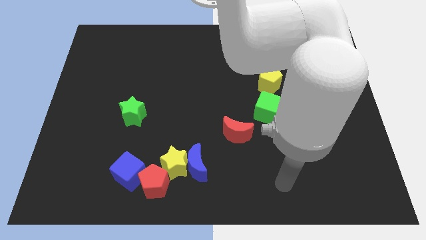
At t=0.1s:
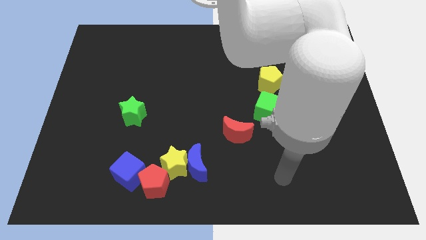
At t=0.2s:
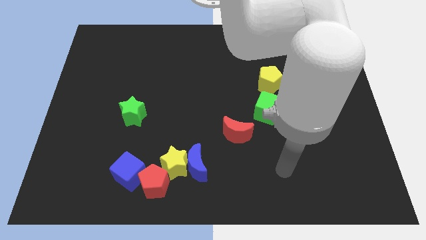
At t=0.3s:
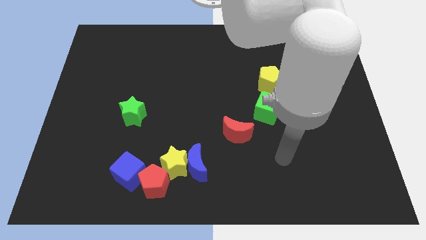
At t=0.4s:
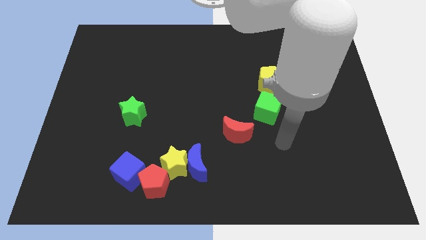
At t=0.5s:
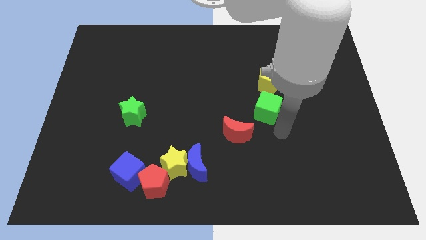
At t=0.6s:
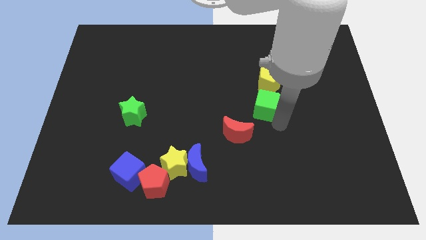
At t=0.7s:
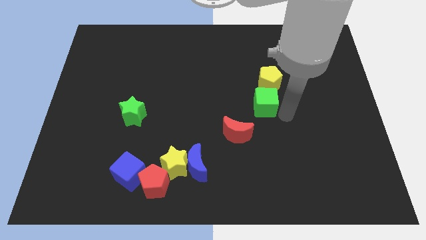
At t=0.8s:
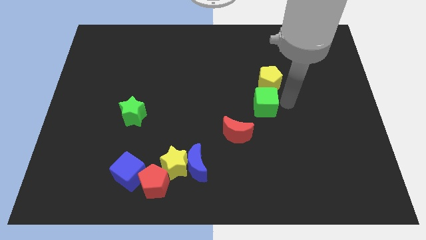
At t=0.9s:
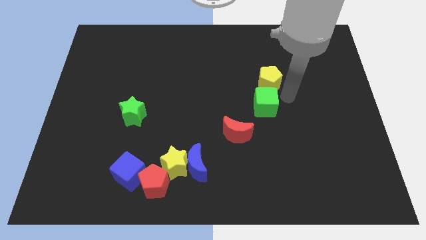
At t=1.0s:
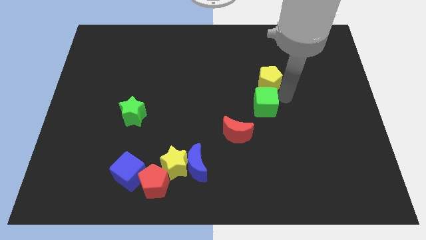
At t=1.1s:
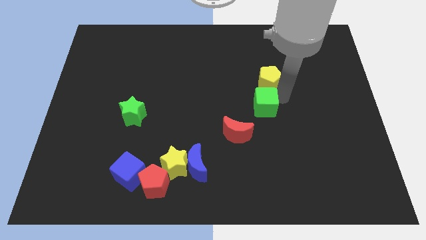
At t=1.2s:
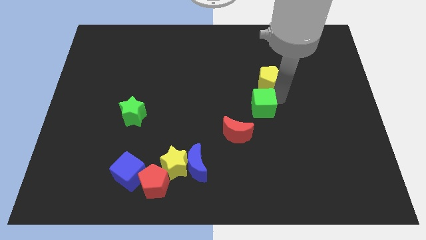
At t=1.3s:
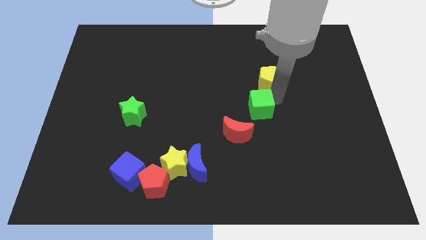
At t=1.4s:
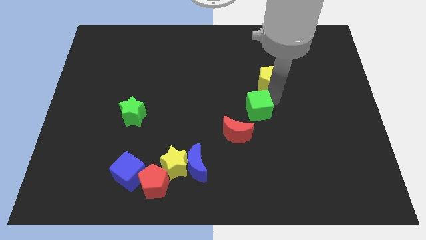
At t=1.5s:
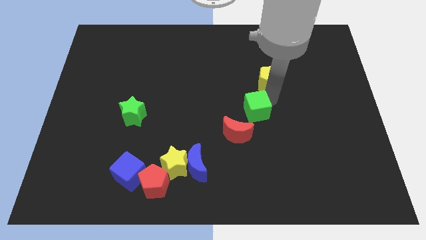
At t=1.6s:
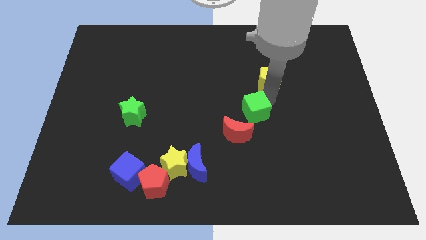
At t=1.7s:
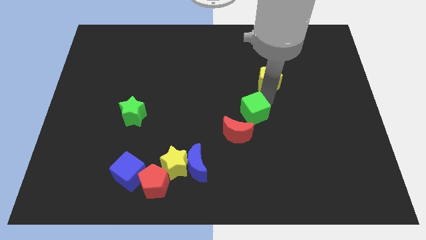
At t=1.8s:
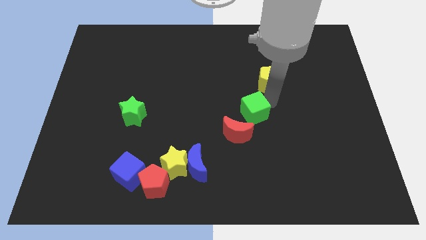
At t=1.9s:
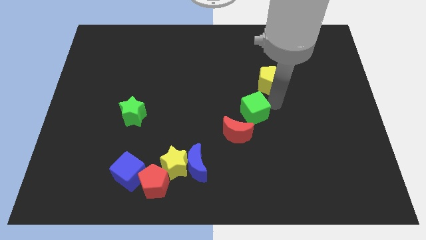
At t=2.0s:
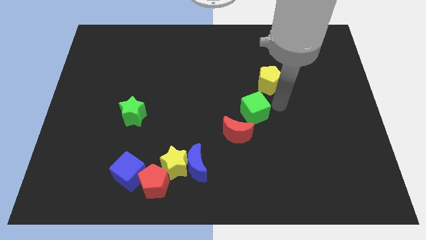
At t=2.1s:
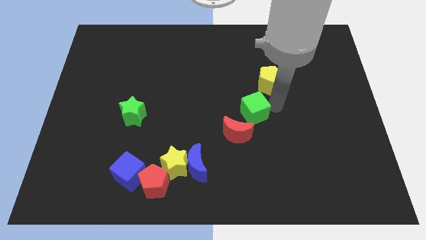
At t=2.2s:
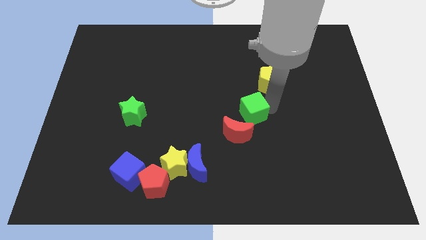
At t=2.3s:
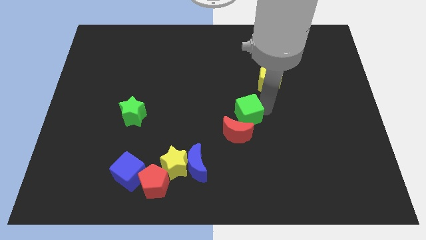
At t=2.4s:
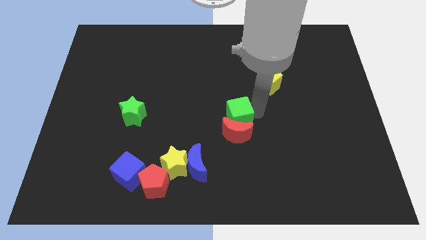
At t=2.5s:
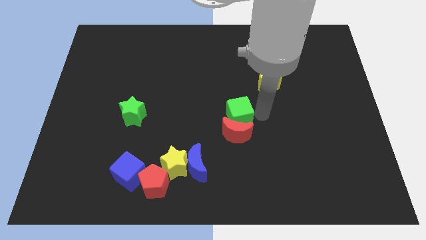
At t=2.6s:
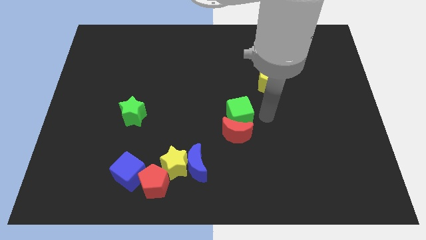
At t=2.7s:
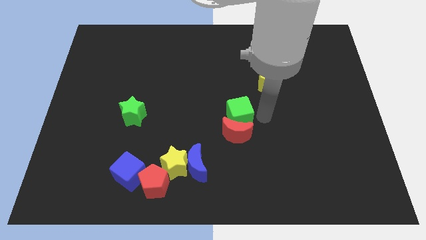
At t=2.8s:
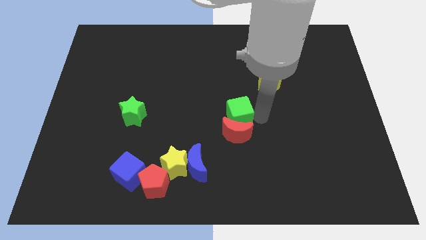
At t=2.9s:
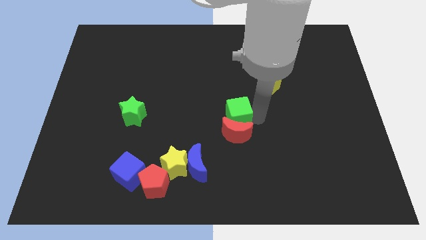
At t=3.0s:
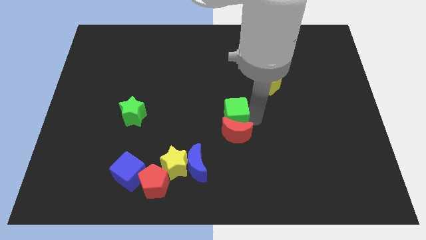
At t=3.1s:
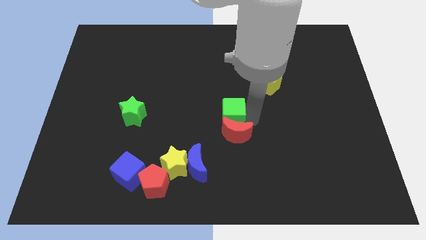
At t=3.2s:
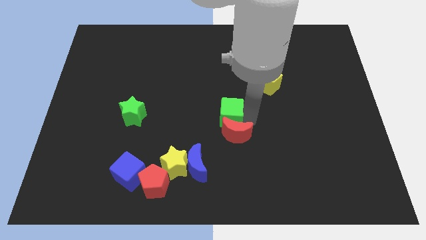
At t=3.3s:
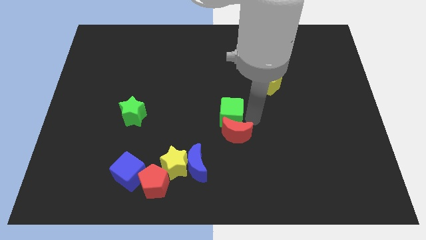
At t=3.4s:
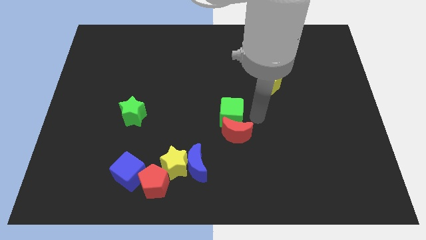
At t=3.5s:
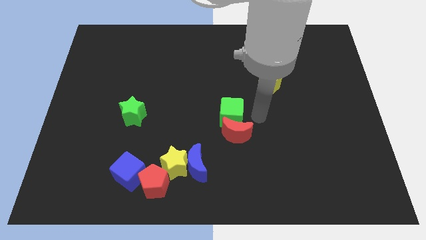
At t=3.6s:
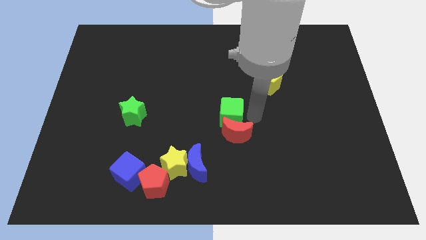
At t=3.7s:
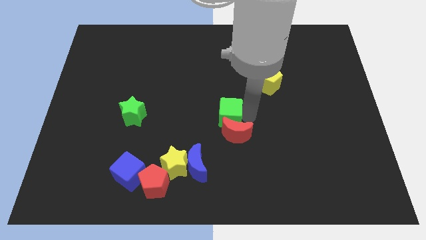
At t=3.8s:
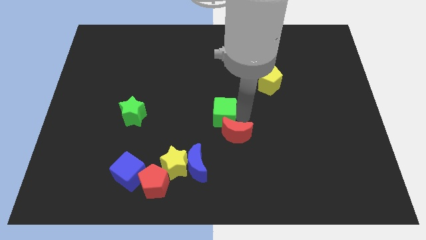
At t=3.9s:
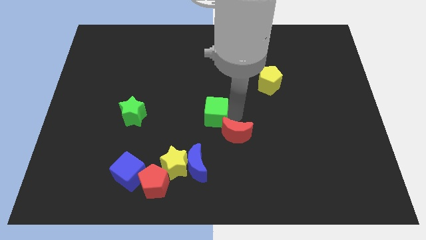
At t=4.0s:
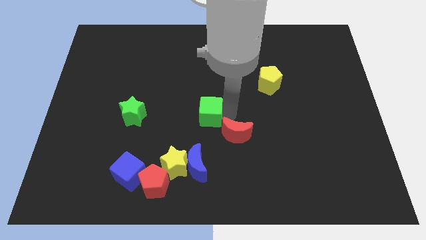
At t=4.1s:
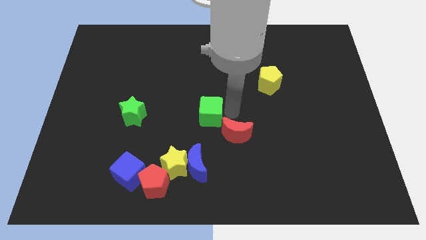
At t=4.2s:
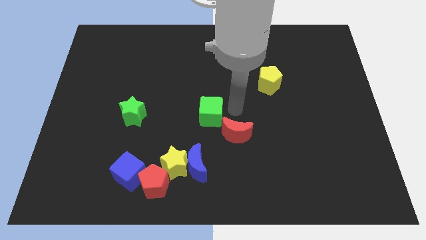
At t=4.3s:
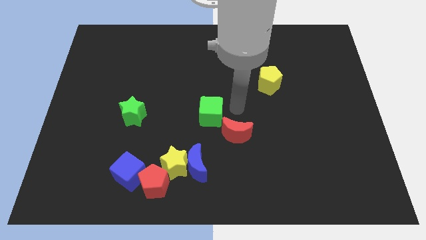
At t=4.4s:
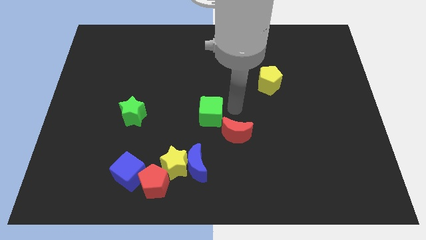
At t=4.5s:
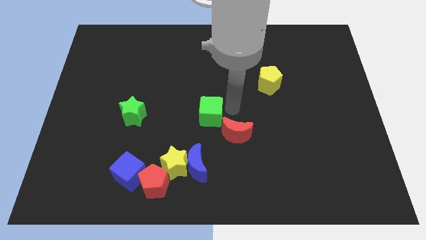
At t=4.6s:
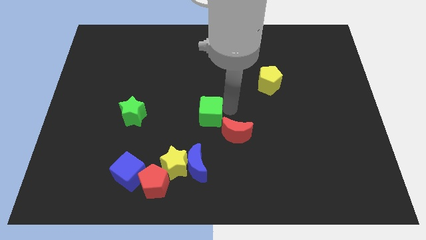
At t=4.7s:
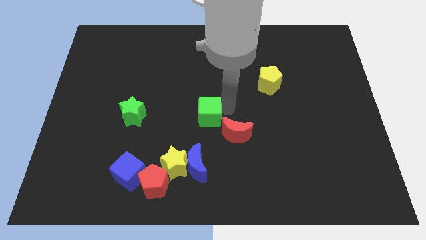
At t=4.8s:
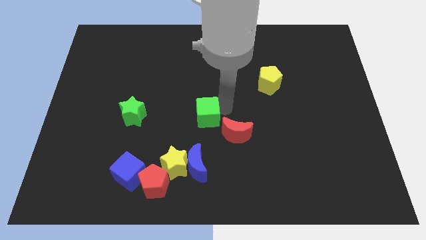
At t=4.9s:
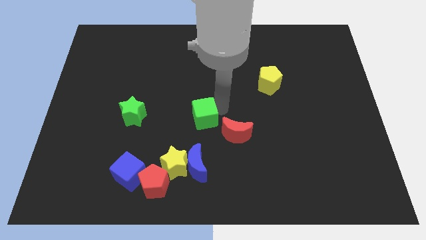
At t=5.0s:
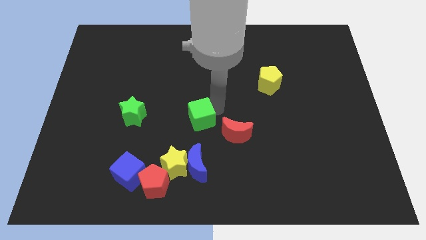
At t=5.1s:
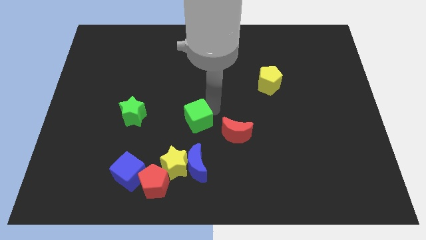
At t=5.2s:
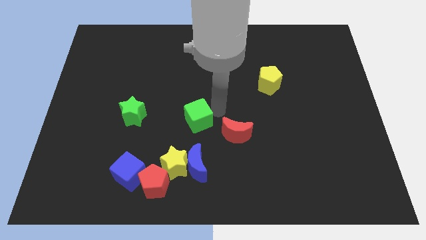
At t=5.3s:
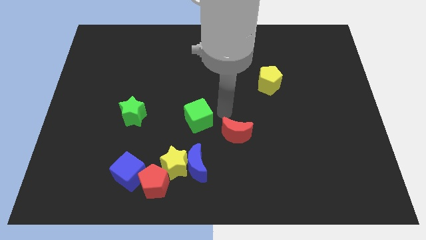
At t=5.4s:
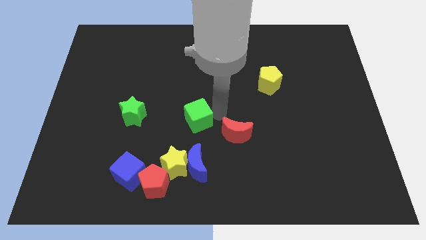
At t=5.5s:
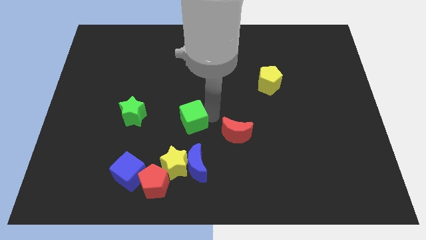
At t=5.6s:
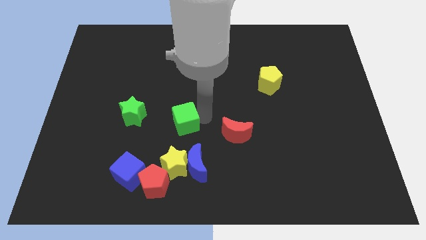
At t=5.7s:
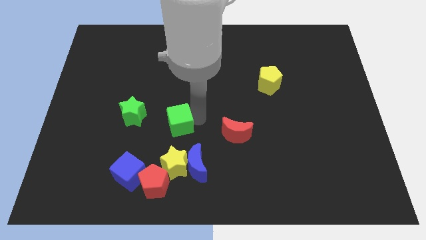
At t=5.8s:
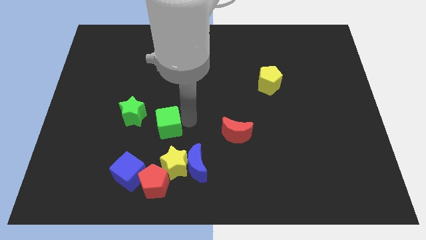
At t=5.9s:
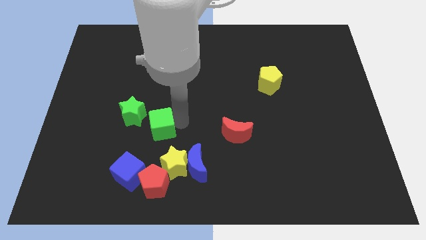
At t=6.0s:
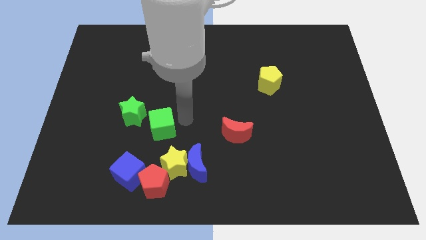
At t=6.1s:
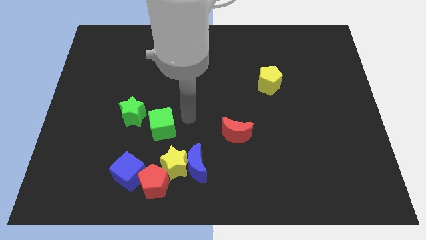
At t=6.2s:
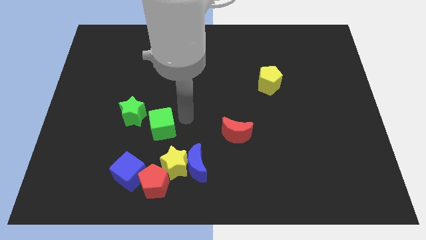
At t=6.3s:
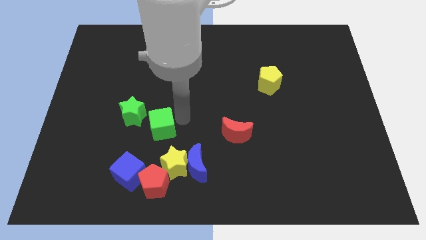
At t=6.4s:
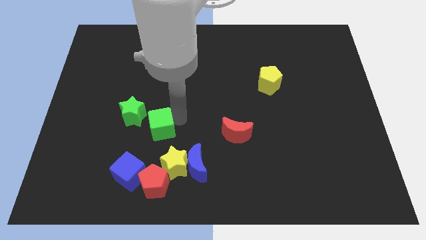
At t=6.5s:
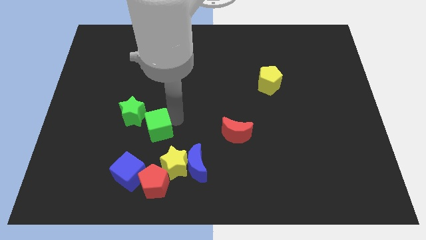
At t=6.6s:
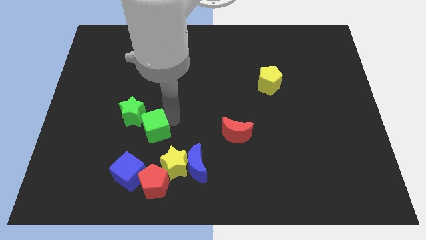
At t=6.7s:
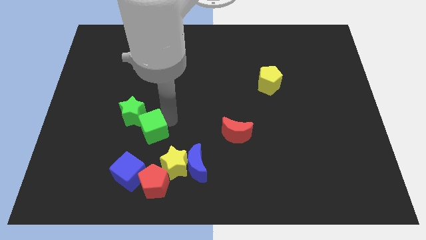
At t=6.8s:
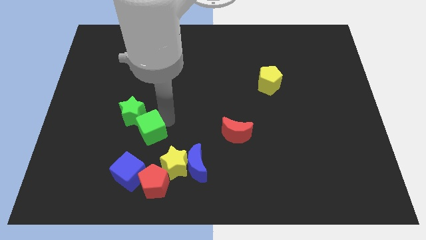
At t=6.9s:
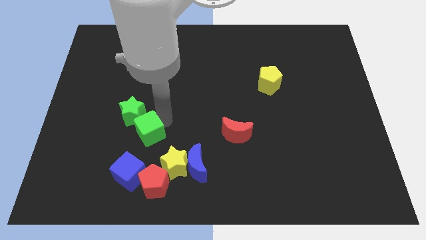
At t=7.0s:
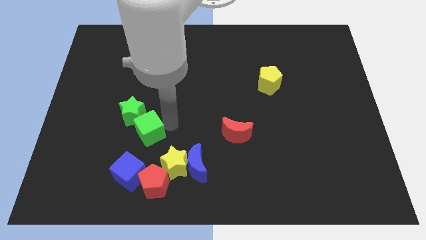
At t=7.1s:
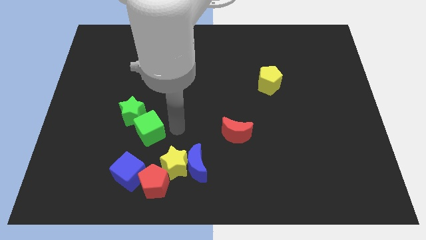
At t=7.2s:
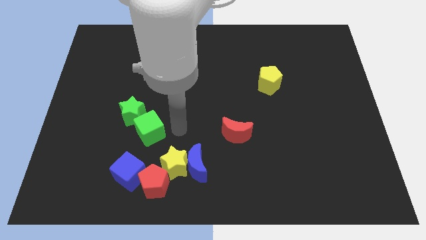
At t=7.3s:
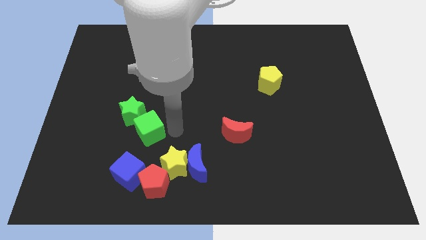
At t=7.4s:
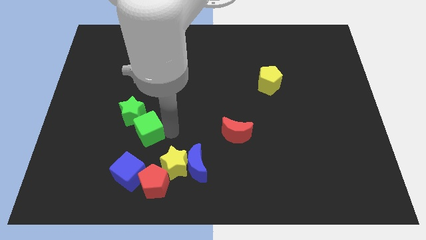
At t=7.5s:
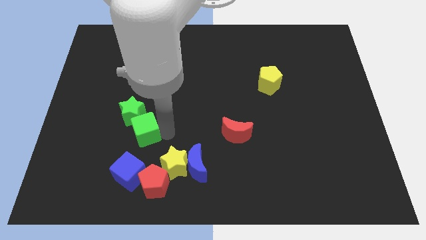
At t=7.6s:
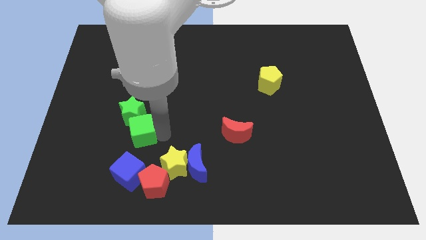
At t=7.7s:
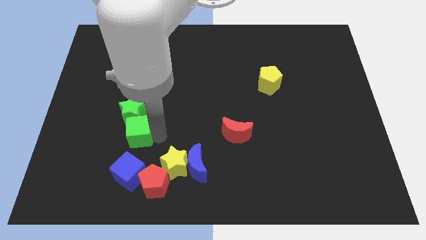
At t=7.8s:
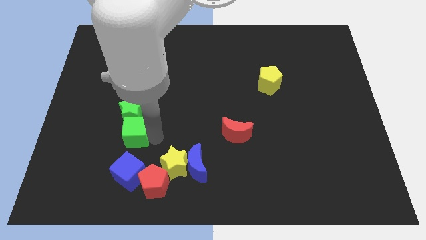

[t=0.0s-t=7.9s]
move the green cube to the bottom left side of the green star
